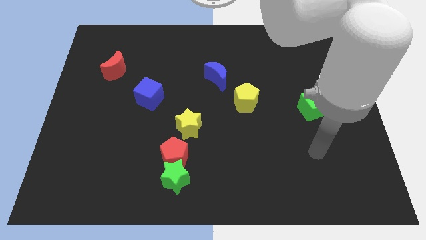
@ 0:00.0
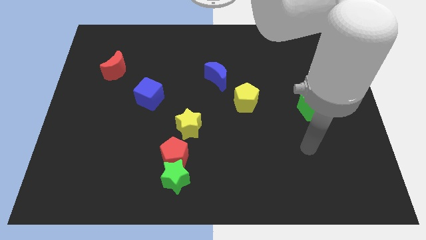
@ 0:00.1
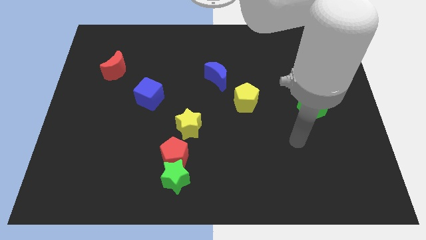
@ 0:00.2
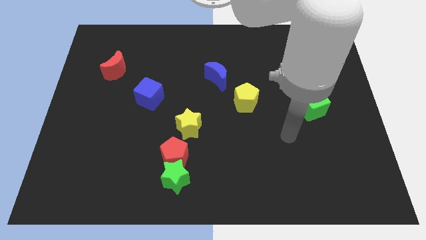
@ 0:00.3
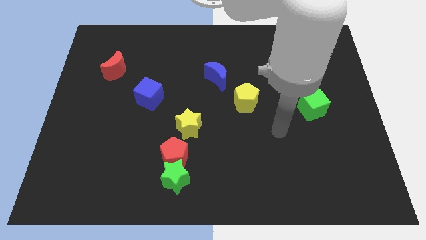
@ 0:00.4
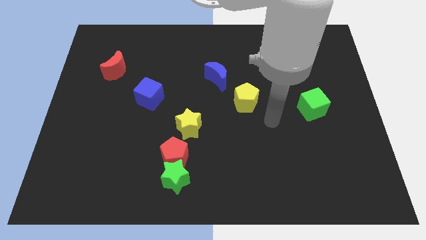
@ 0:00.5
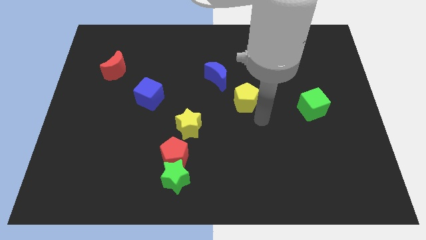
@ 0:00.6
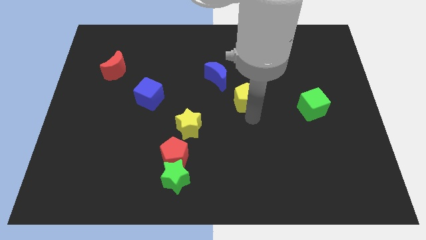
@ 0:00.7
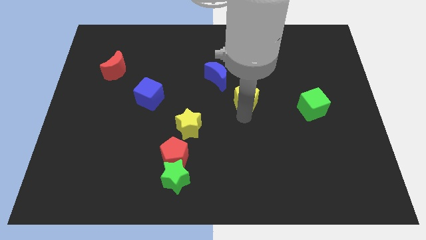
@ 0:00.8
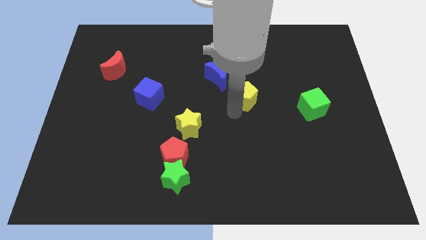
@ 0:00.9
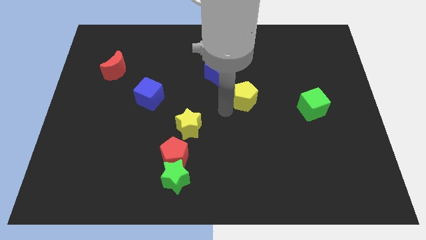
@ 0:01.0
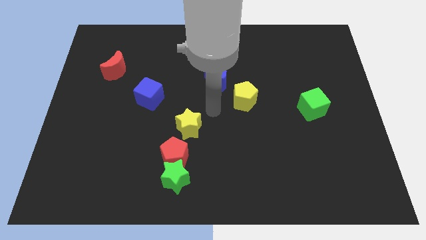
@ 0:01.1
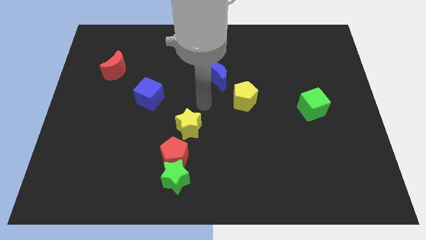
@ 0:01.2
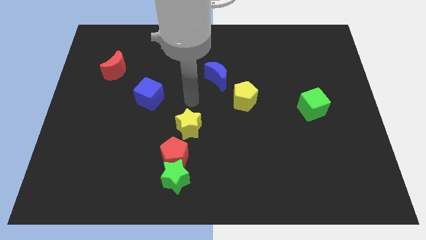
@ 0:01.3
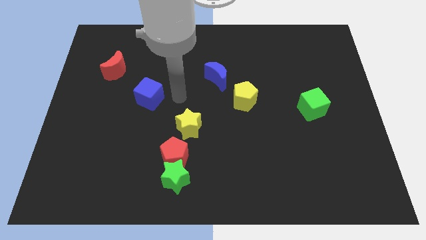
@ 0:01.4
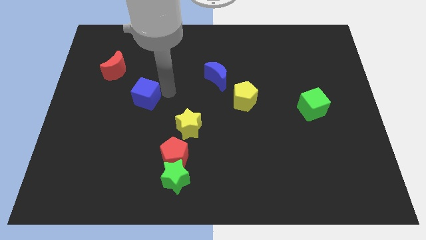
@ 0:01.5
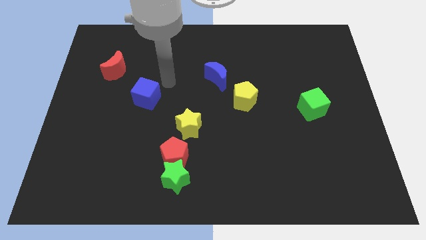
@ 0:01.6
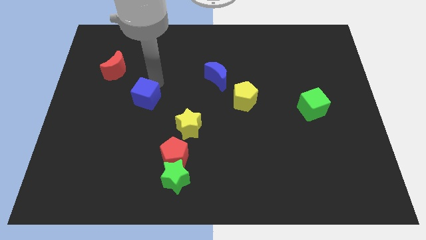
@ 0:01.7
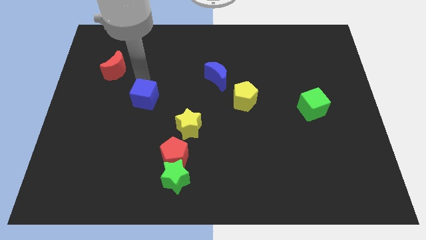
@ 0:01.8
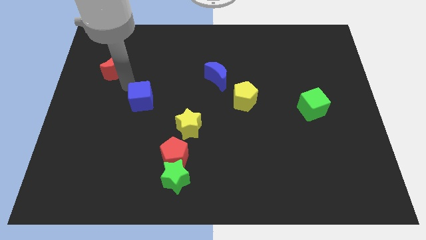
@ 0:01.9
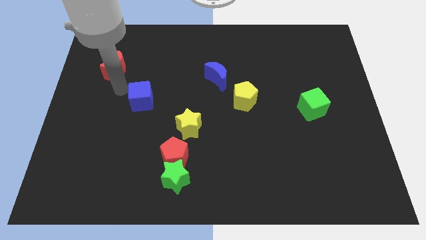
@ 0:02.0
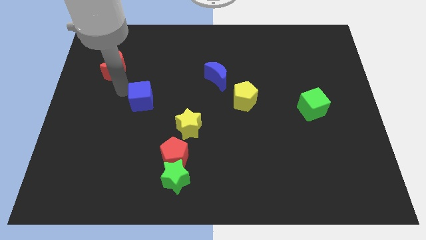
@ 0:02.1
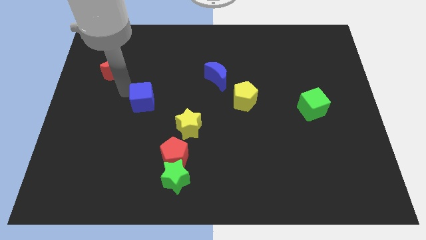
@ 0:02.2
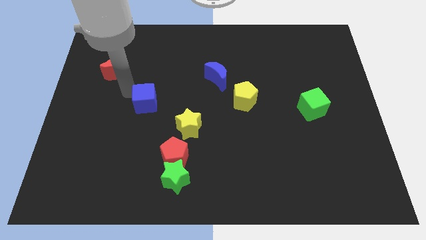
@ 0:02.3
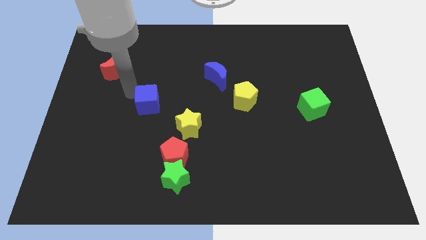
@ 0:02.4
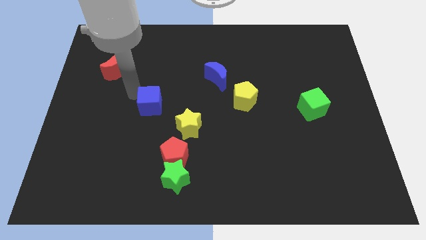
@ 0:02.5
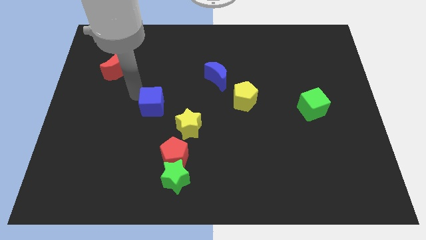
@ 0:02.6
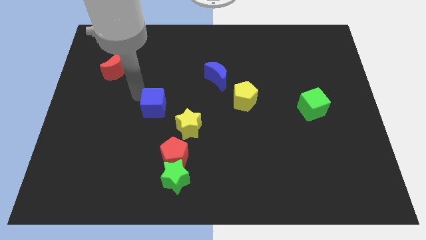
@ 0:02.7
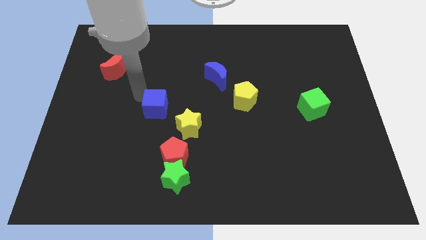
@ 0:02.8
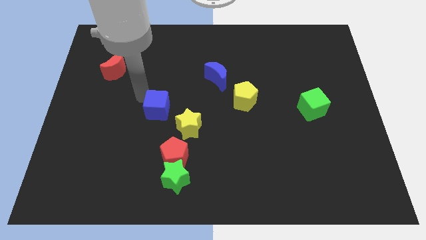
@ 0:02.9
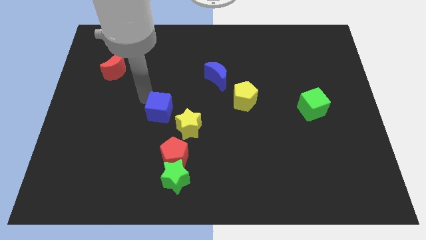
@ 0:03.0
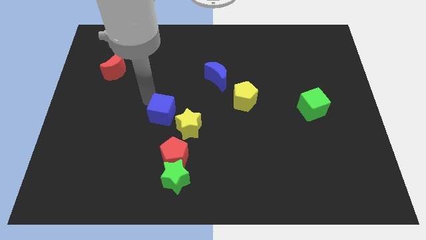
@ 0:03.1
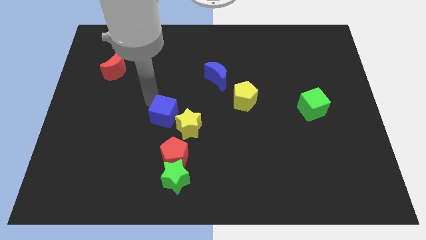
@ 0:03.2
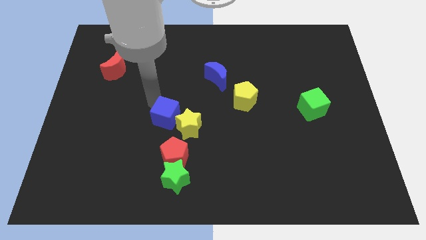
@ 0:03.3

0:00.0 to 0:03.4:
push the blue cube towards the yellow star

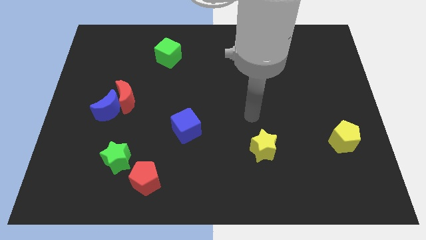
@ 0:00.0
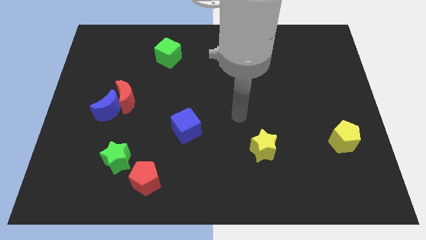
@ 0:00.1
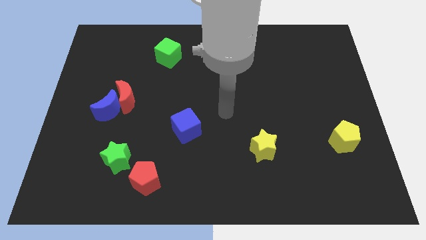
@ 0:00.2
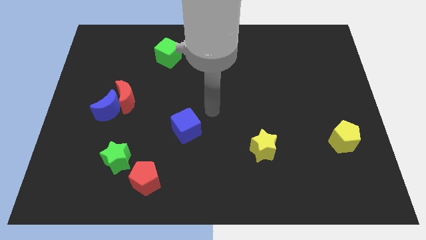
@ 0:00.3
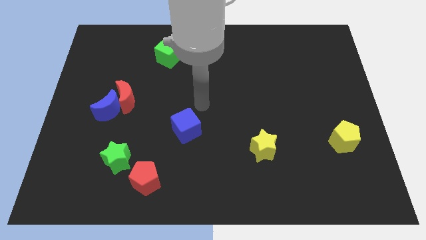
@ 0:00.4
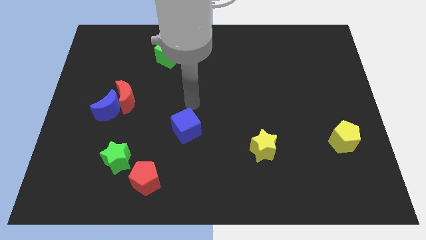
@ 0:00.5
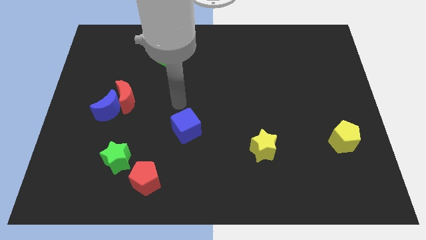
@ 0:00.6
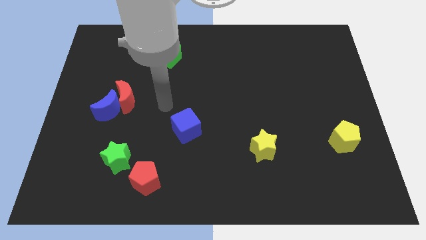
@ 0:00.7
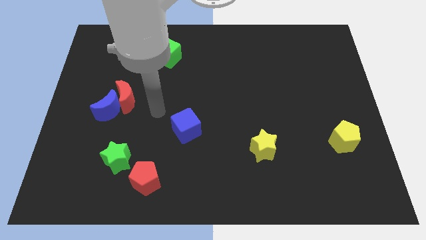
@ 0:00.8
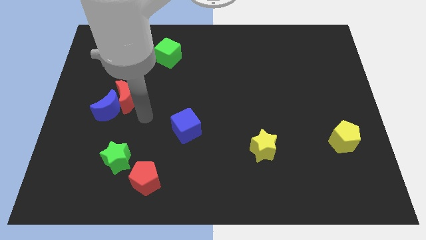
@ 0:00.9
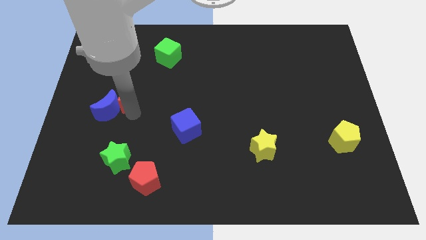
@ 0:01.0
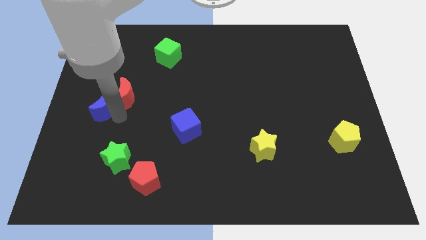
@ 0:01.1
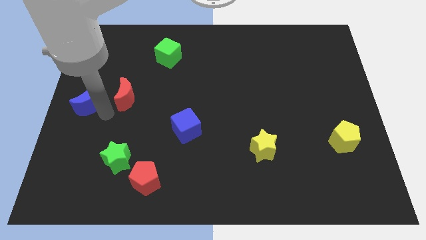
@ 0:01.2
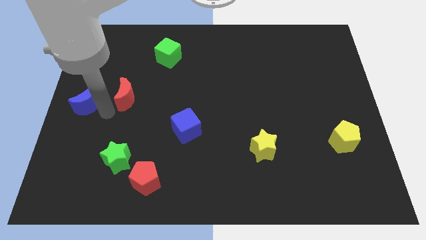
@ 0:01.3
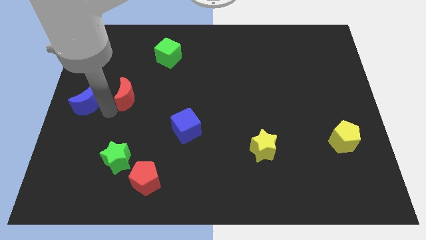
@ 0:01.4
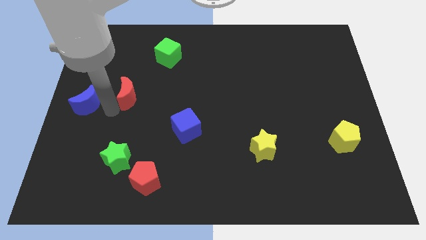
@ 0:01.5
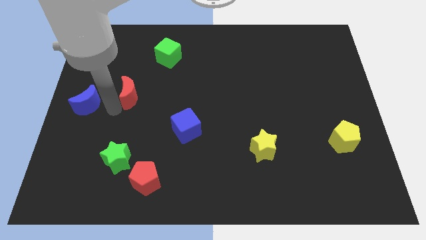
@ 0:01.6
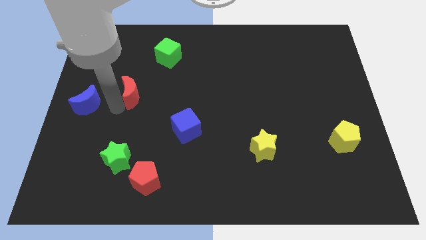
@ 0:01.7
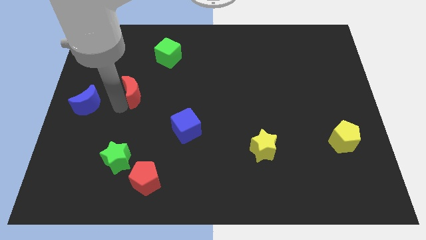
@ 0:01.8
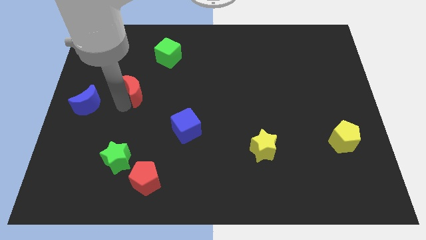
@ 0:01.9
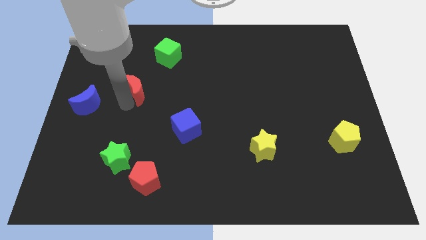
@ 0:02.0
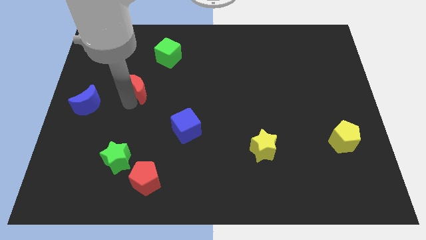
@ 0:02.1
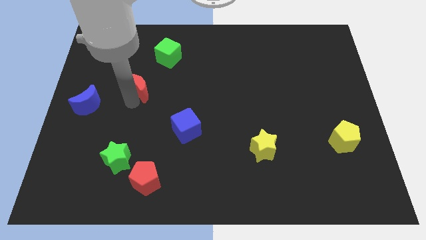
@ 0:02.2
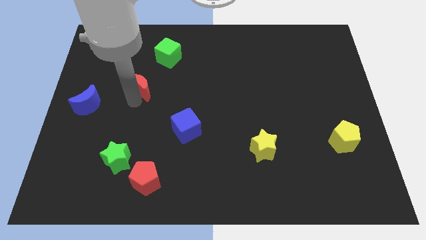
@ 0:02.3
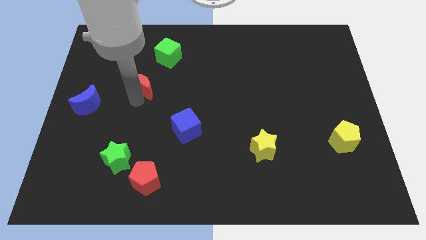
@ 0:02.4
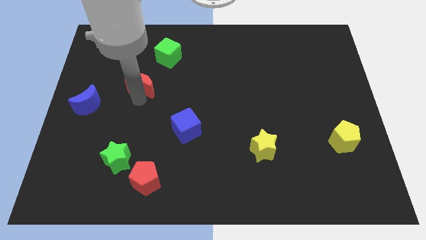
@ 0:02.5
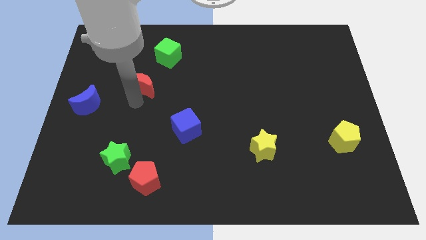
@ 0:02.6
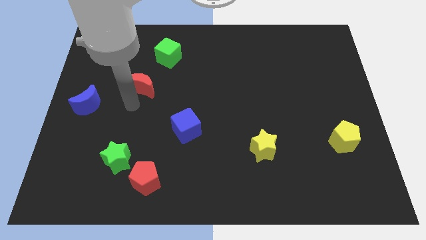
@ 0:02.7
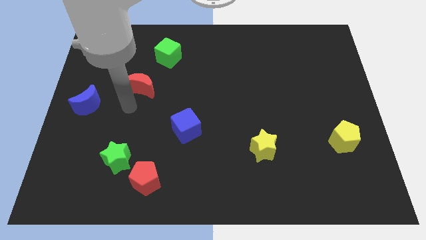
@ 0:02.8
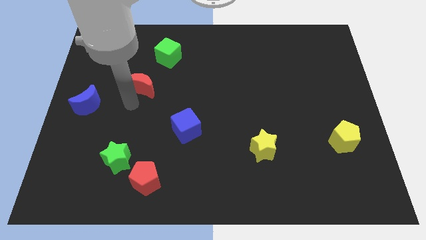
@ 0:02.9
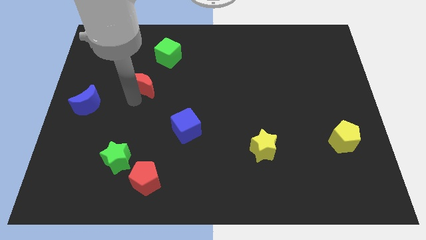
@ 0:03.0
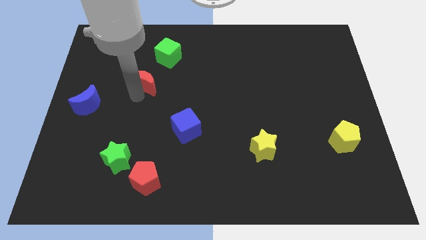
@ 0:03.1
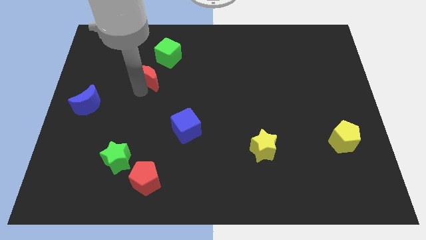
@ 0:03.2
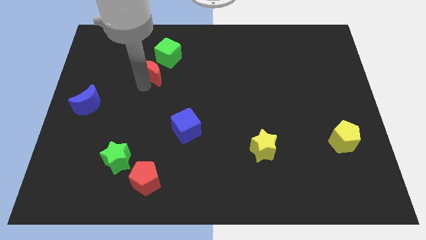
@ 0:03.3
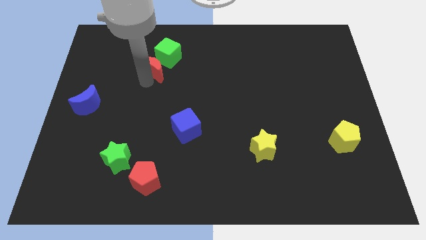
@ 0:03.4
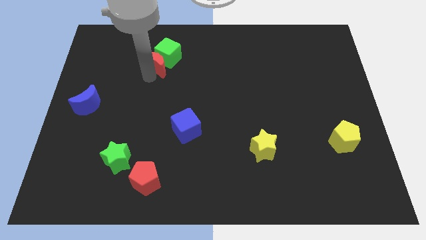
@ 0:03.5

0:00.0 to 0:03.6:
slide the red moon to the green cube

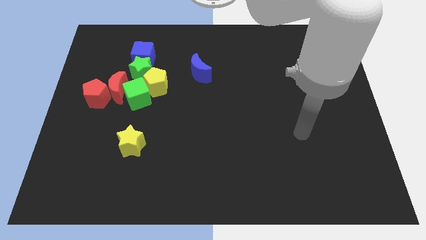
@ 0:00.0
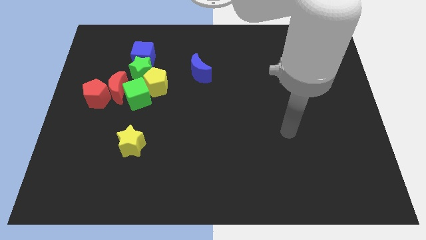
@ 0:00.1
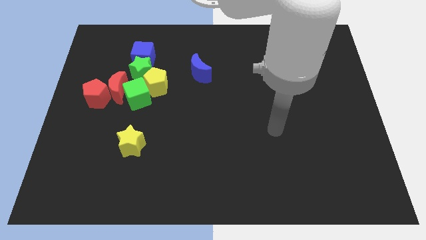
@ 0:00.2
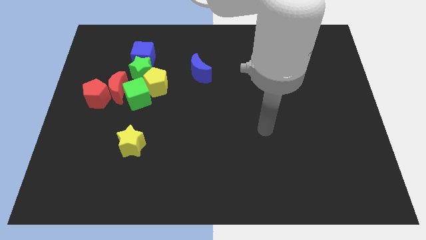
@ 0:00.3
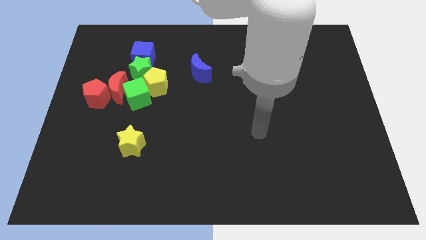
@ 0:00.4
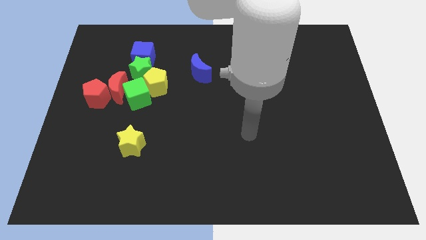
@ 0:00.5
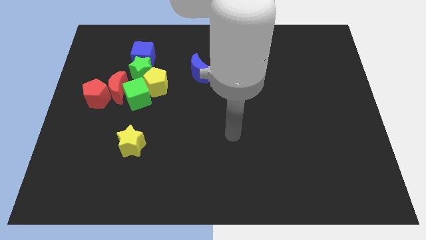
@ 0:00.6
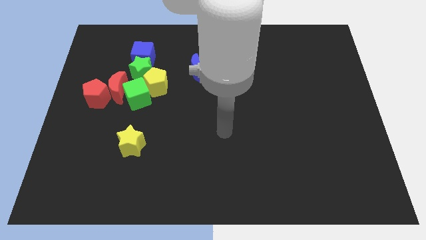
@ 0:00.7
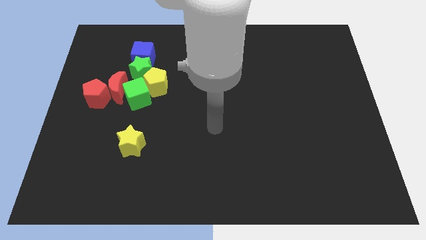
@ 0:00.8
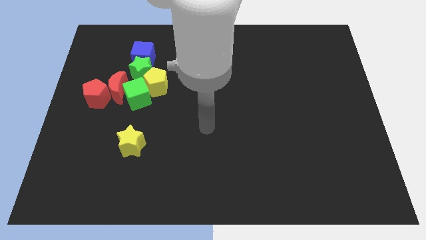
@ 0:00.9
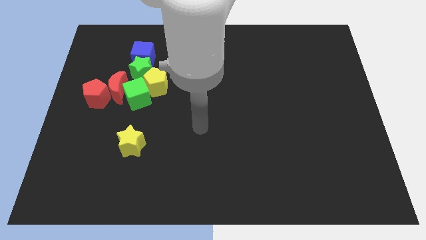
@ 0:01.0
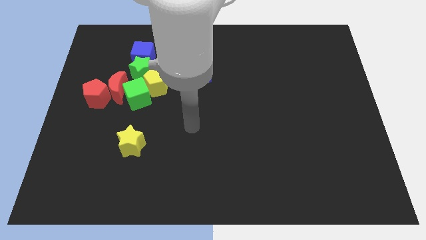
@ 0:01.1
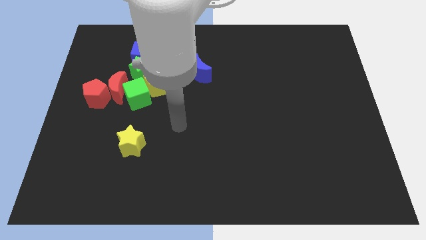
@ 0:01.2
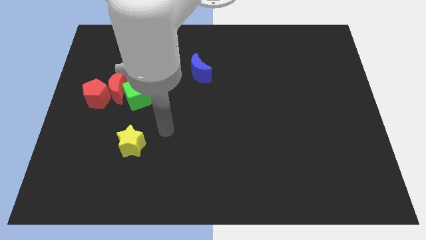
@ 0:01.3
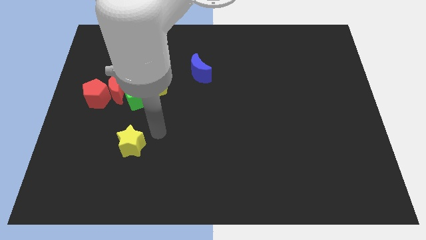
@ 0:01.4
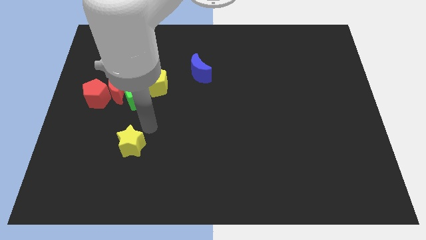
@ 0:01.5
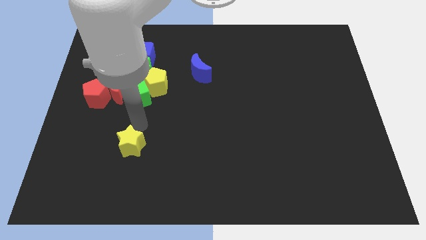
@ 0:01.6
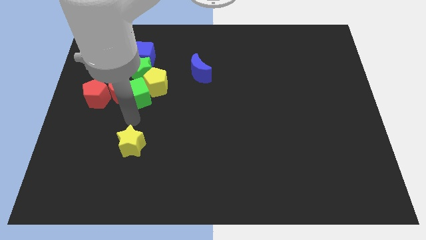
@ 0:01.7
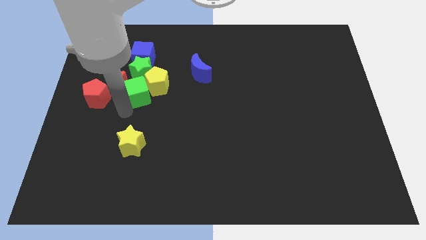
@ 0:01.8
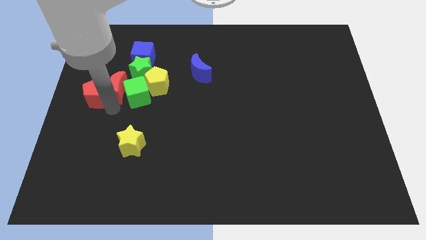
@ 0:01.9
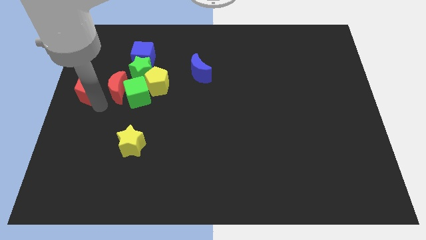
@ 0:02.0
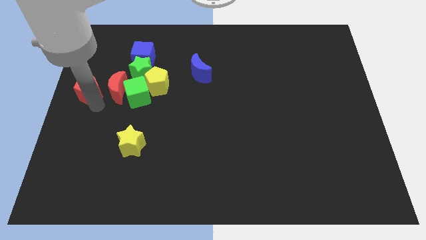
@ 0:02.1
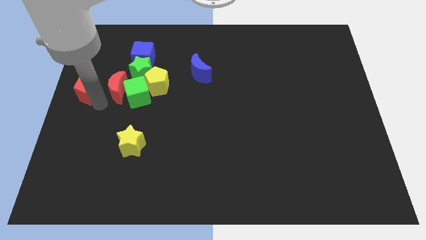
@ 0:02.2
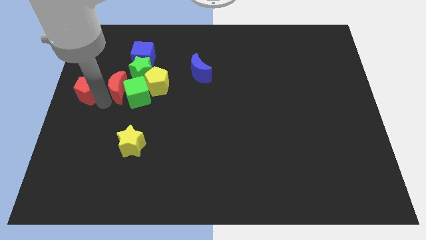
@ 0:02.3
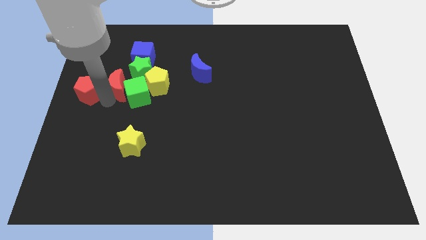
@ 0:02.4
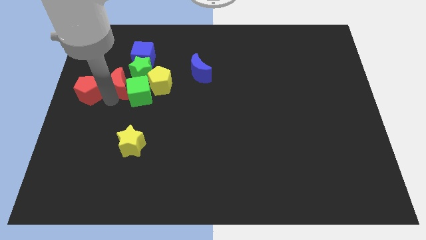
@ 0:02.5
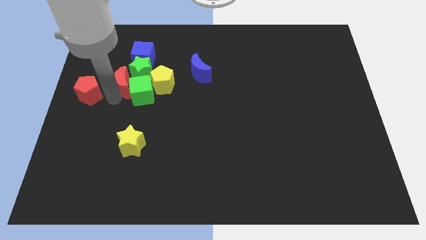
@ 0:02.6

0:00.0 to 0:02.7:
push the red moon towards the green star
